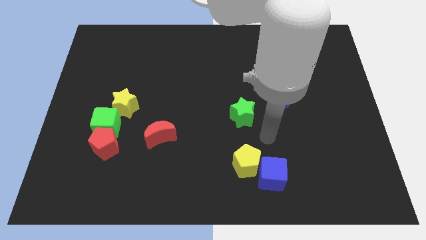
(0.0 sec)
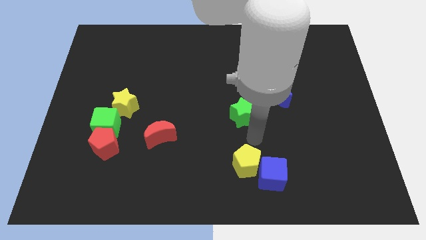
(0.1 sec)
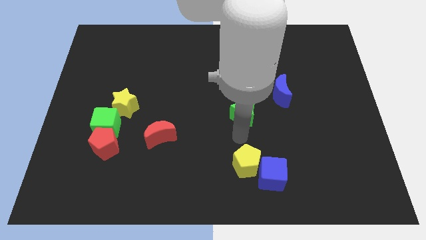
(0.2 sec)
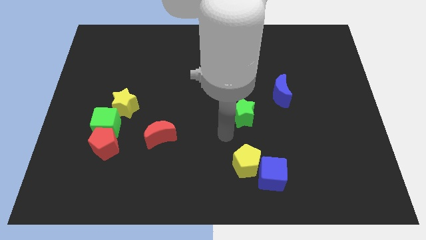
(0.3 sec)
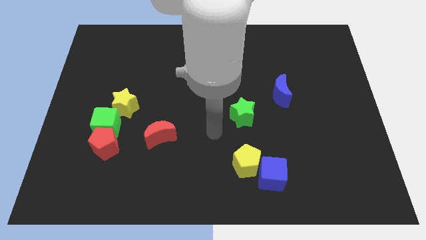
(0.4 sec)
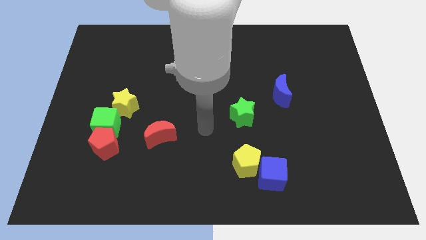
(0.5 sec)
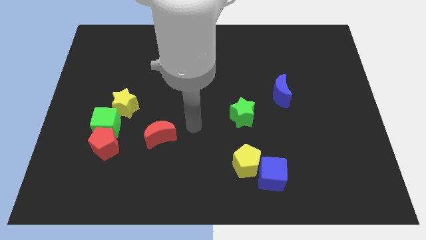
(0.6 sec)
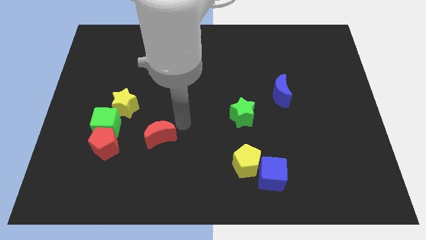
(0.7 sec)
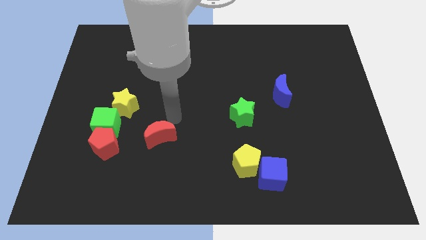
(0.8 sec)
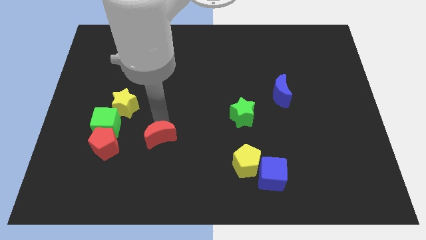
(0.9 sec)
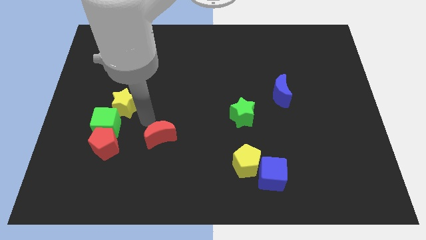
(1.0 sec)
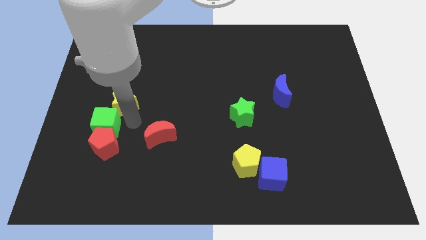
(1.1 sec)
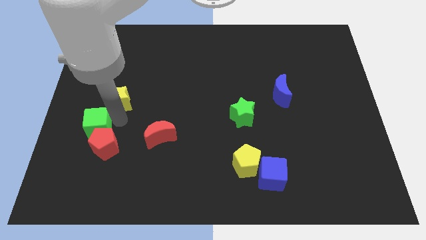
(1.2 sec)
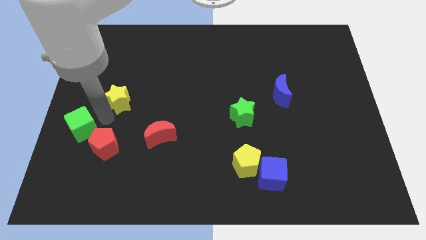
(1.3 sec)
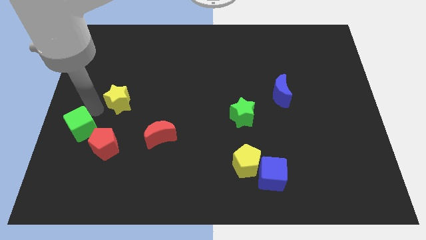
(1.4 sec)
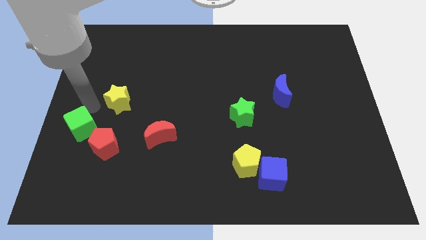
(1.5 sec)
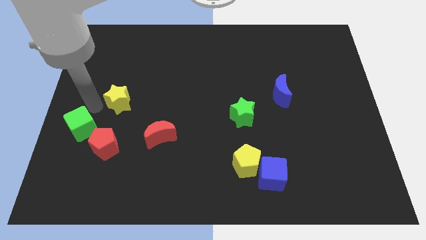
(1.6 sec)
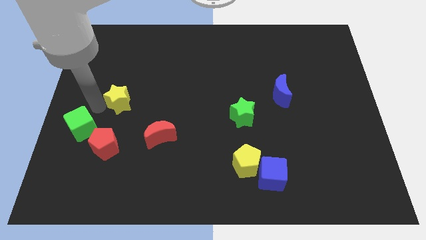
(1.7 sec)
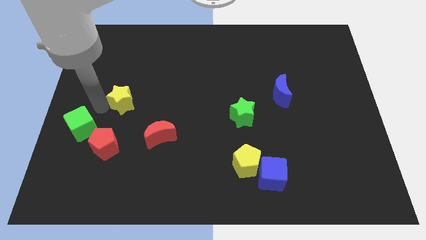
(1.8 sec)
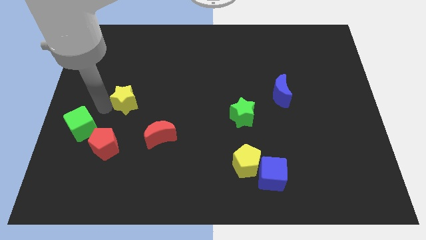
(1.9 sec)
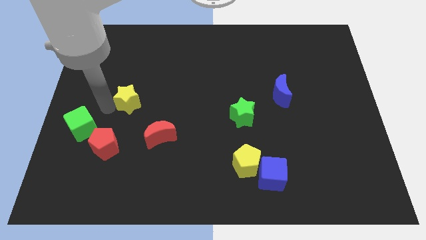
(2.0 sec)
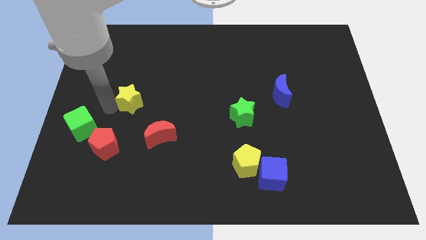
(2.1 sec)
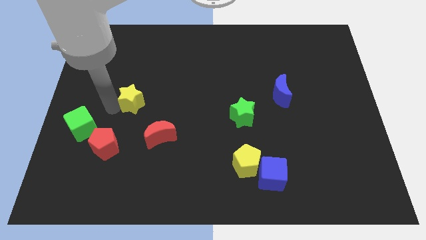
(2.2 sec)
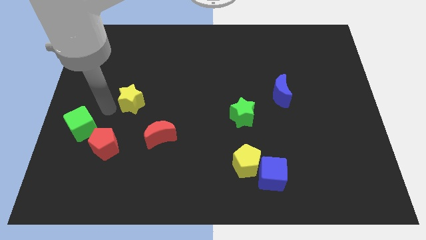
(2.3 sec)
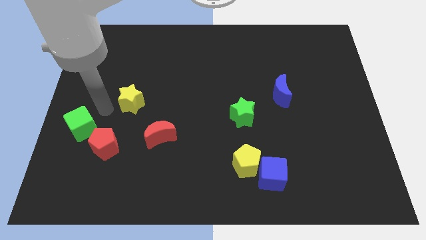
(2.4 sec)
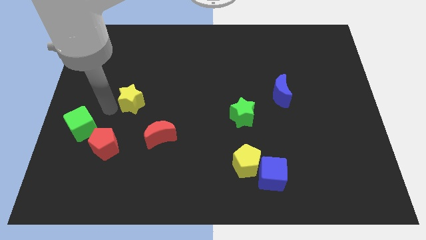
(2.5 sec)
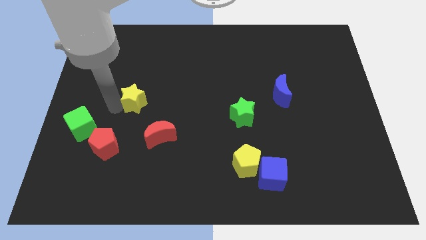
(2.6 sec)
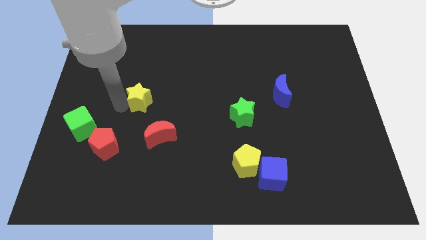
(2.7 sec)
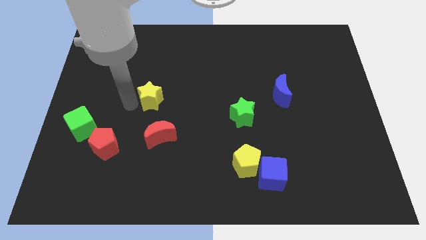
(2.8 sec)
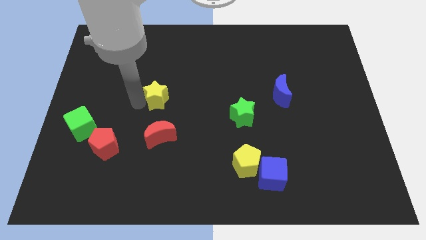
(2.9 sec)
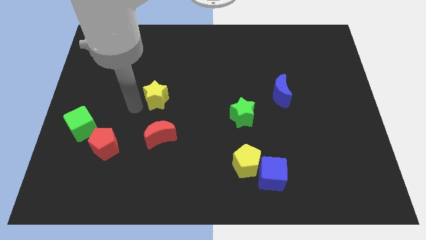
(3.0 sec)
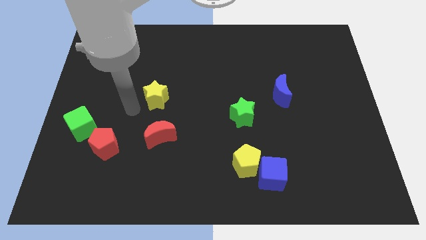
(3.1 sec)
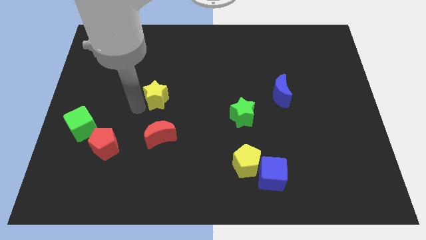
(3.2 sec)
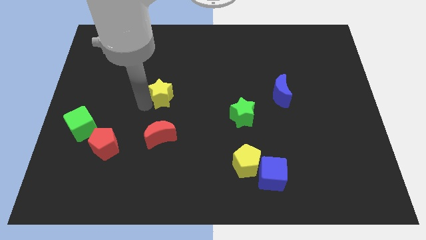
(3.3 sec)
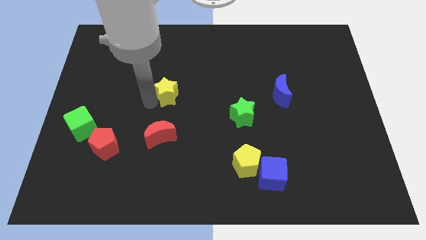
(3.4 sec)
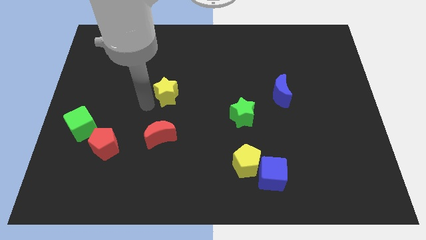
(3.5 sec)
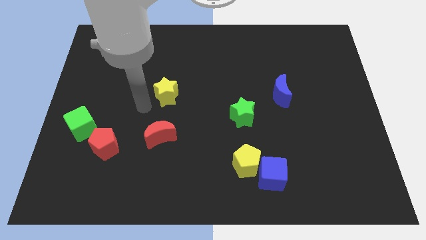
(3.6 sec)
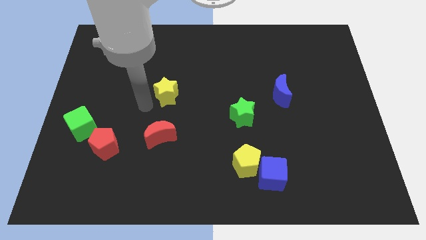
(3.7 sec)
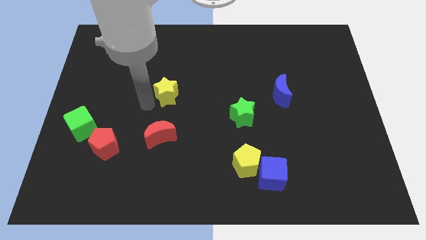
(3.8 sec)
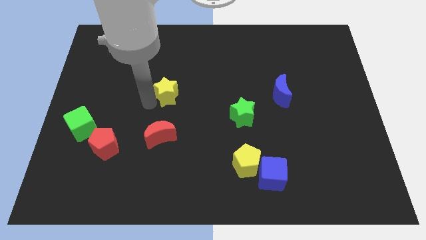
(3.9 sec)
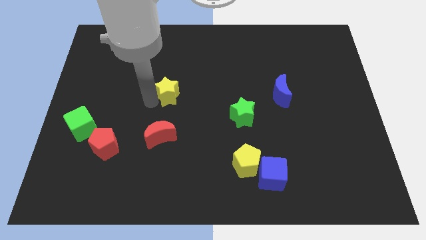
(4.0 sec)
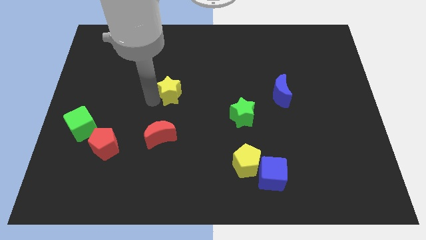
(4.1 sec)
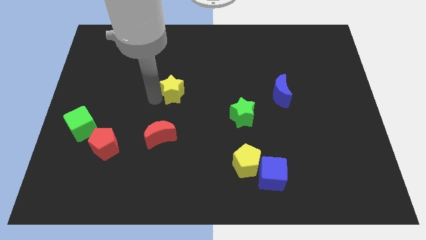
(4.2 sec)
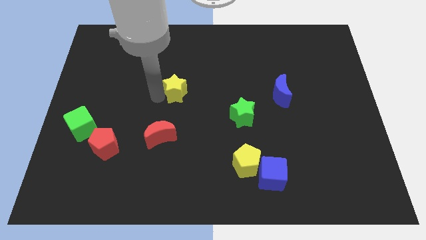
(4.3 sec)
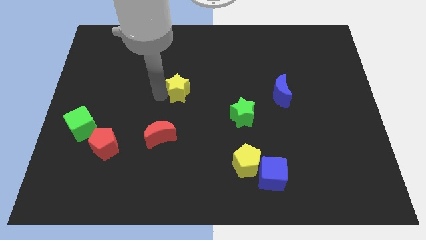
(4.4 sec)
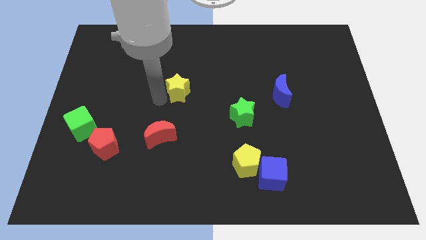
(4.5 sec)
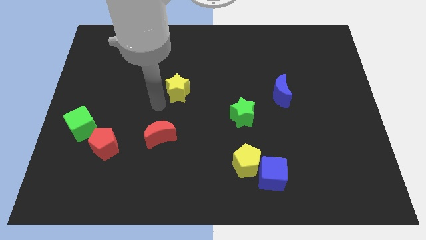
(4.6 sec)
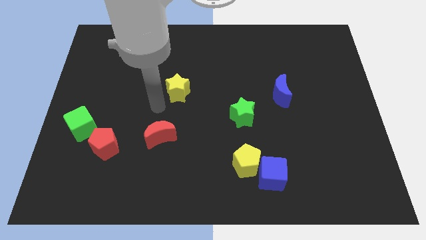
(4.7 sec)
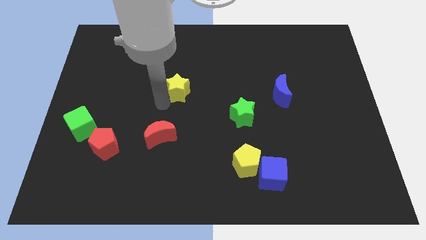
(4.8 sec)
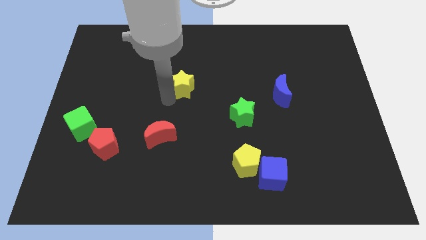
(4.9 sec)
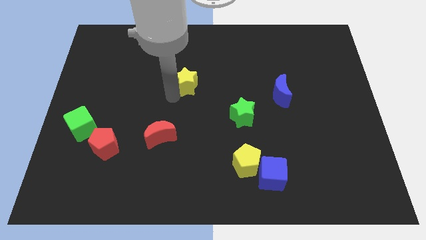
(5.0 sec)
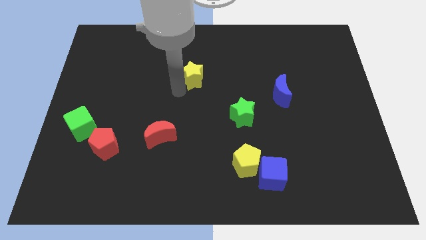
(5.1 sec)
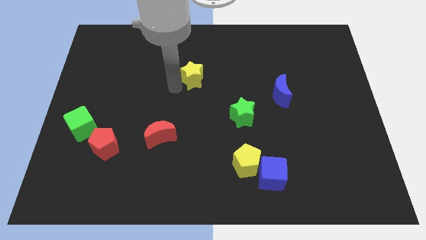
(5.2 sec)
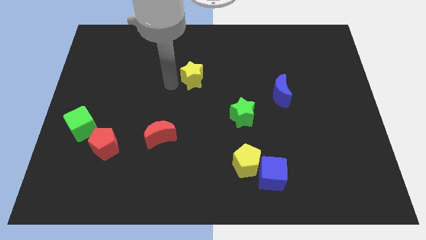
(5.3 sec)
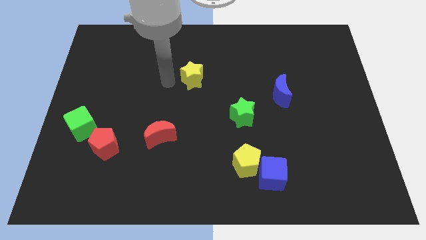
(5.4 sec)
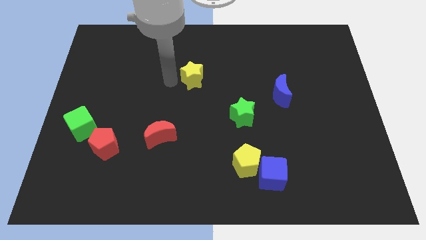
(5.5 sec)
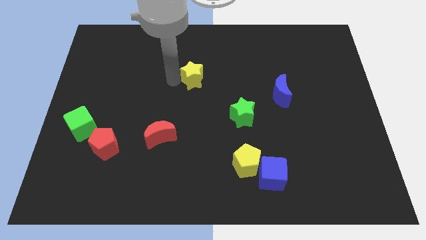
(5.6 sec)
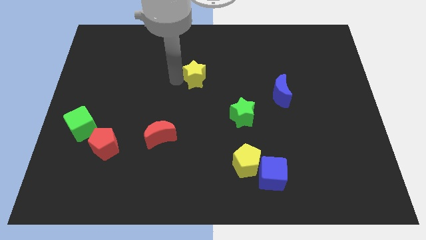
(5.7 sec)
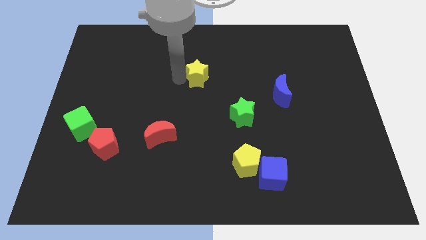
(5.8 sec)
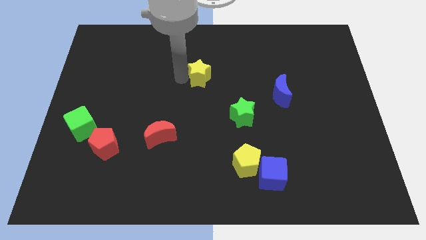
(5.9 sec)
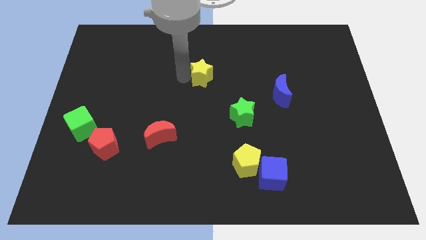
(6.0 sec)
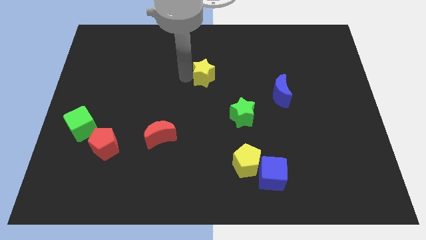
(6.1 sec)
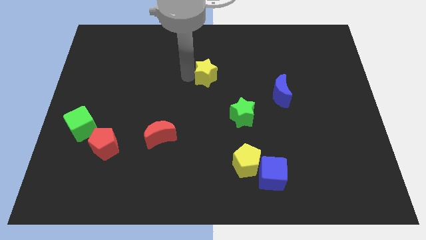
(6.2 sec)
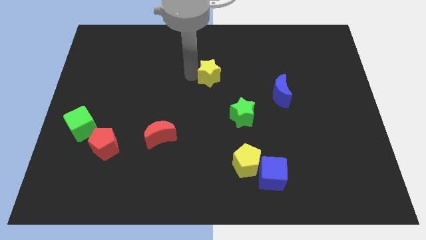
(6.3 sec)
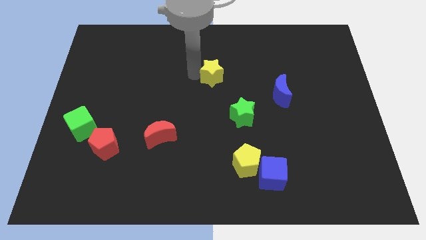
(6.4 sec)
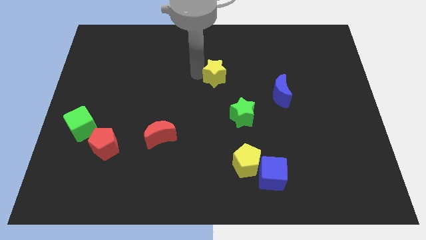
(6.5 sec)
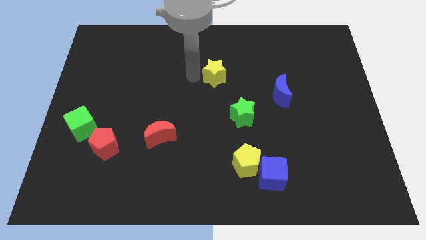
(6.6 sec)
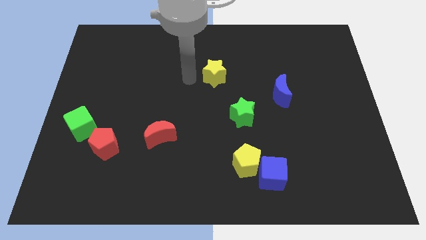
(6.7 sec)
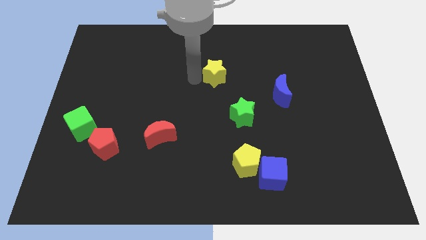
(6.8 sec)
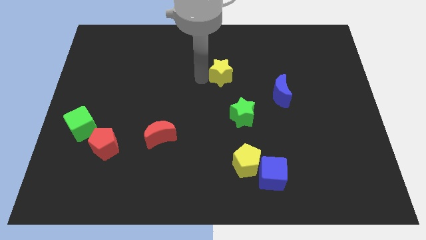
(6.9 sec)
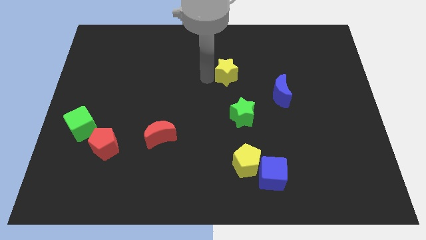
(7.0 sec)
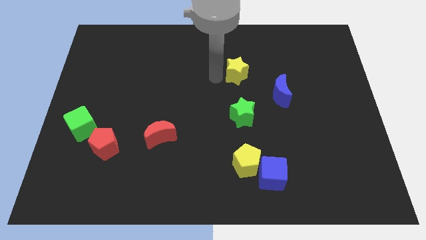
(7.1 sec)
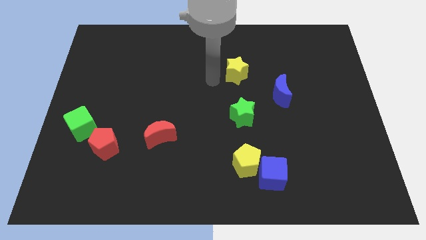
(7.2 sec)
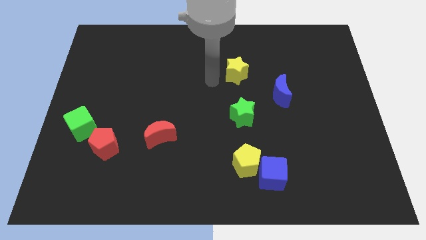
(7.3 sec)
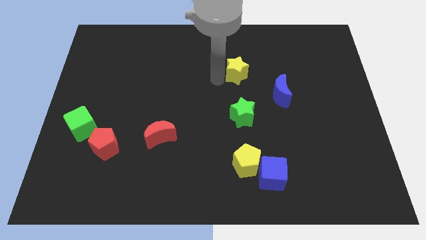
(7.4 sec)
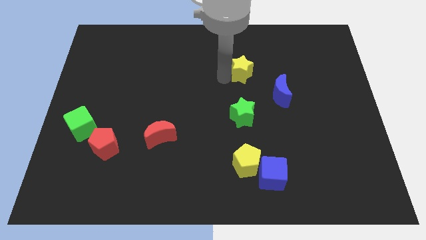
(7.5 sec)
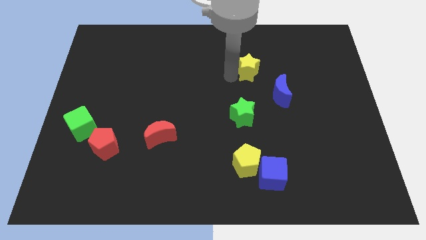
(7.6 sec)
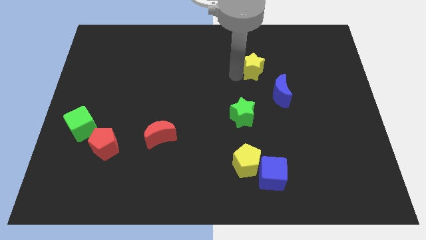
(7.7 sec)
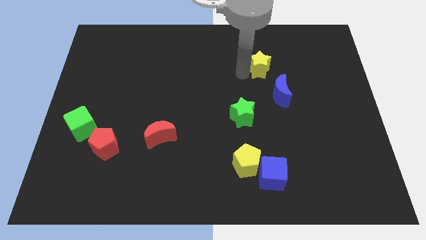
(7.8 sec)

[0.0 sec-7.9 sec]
put the yellow star to the top of the blue moon
